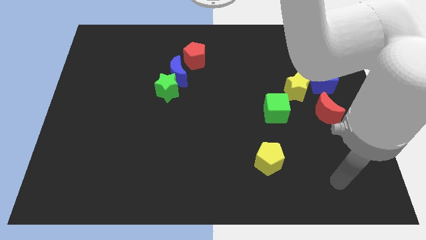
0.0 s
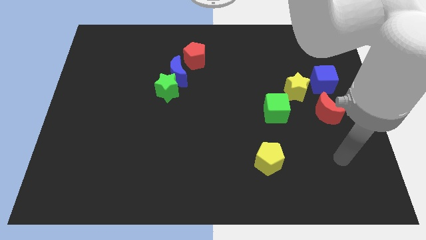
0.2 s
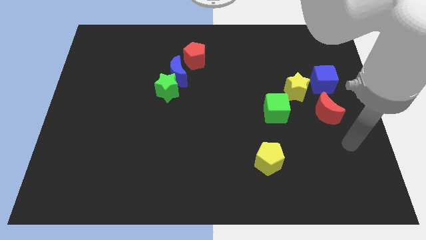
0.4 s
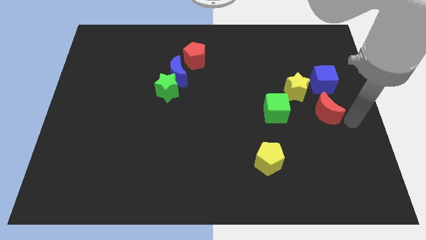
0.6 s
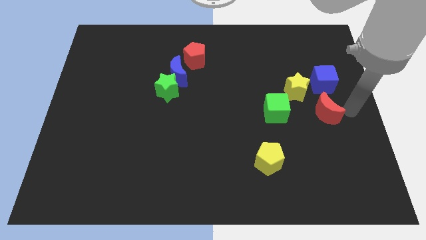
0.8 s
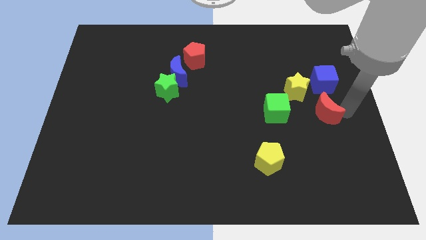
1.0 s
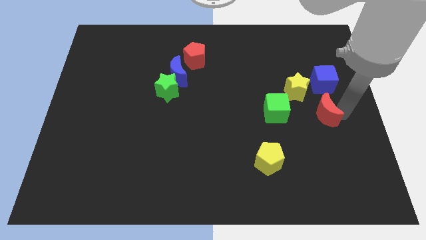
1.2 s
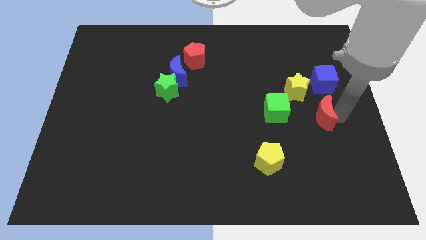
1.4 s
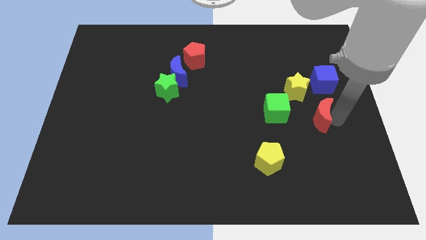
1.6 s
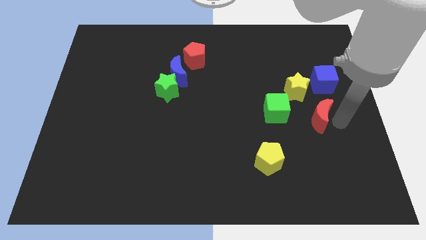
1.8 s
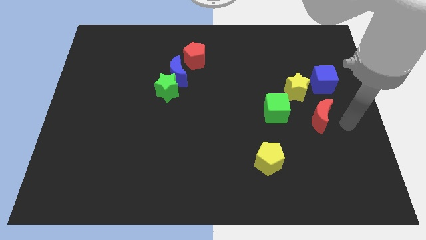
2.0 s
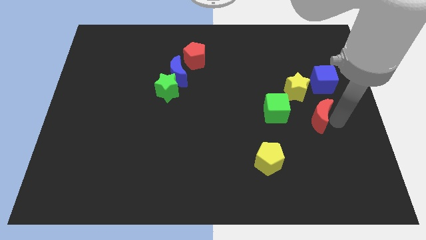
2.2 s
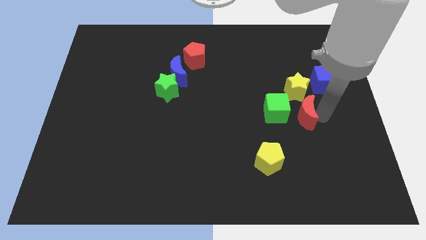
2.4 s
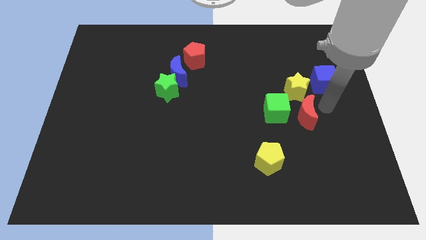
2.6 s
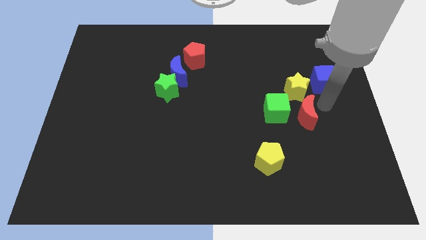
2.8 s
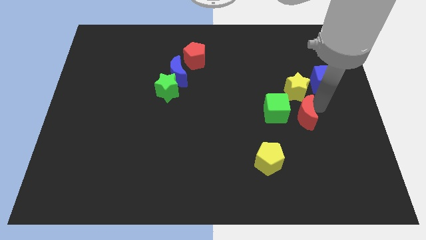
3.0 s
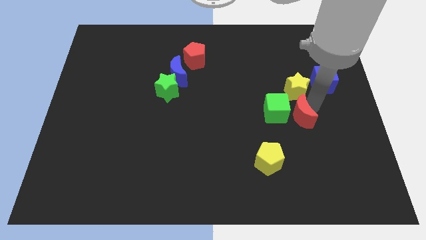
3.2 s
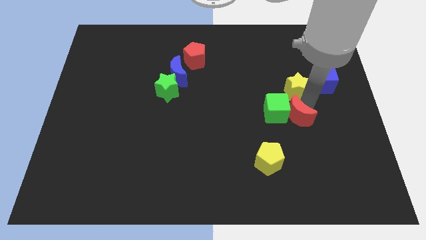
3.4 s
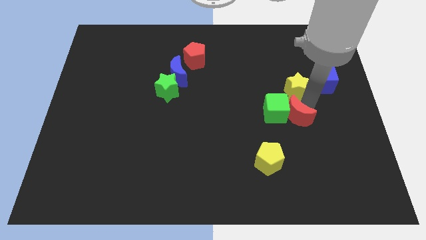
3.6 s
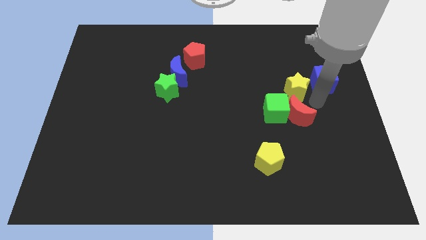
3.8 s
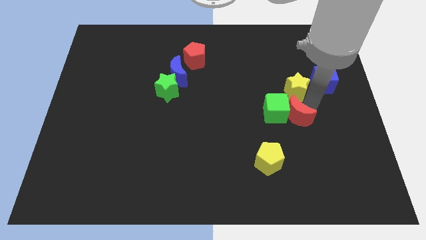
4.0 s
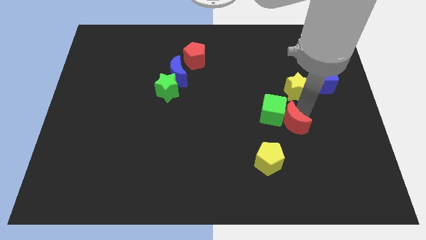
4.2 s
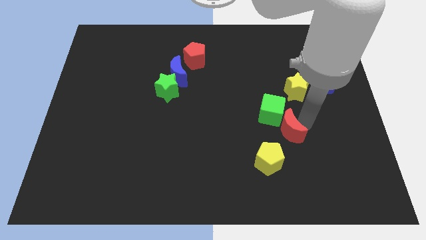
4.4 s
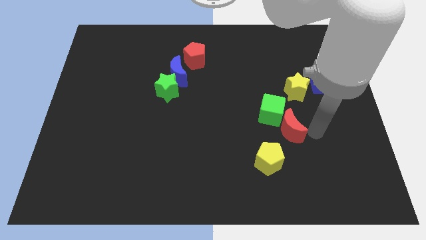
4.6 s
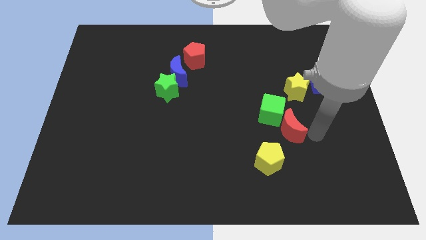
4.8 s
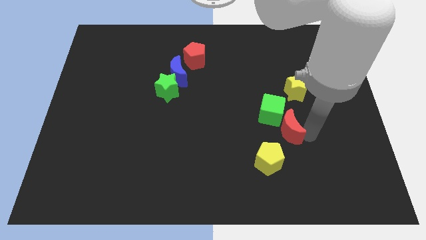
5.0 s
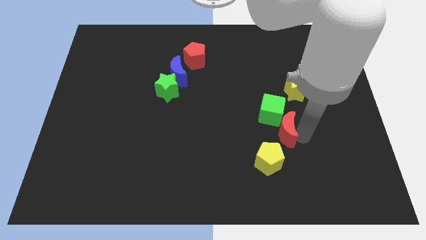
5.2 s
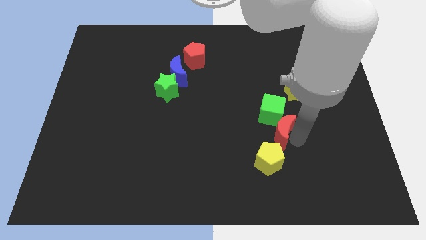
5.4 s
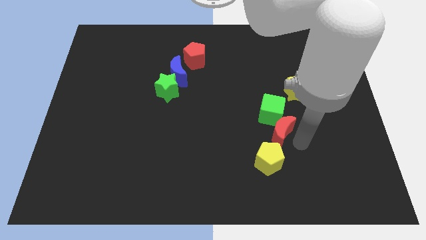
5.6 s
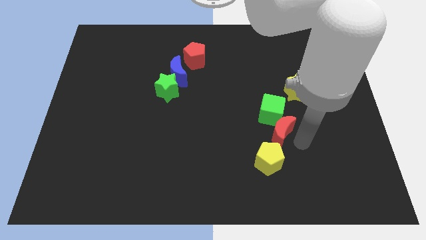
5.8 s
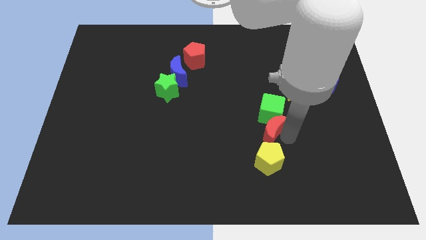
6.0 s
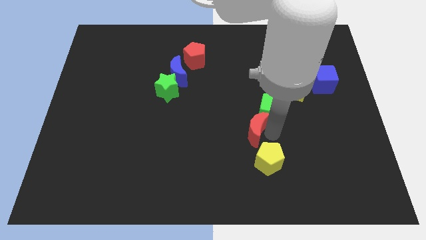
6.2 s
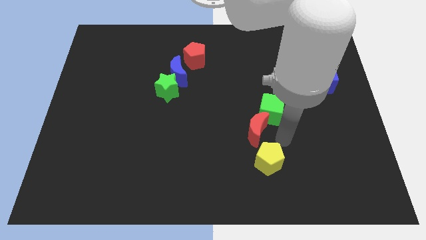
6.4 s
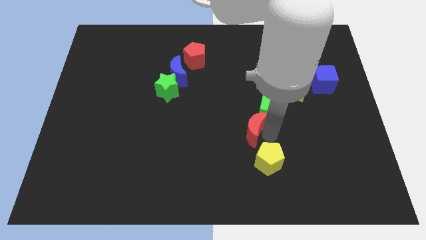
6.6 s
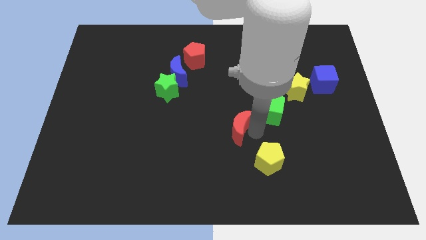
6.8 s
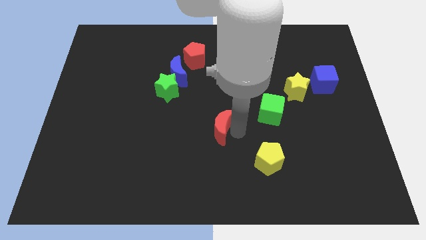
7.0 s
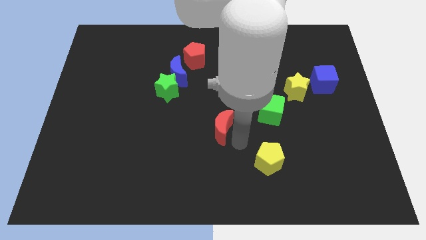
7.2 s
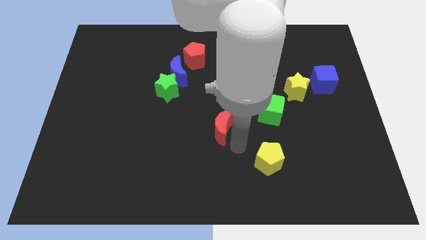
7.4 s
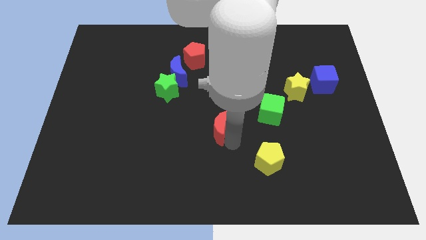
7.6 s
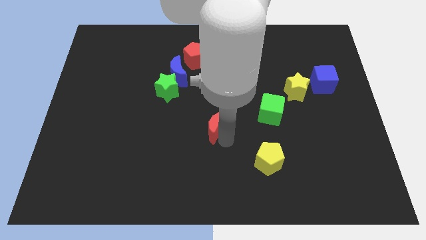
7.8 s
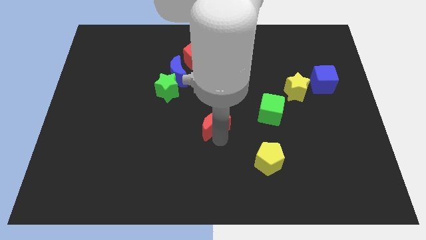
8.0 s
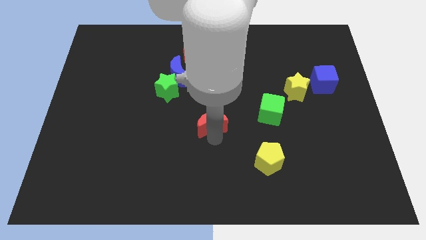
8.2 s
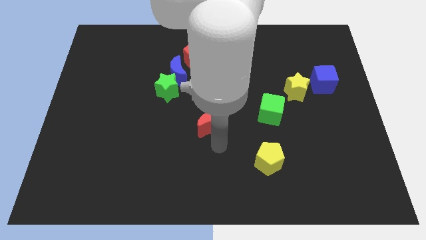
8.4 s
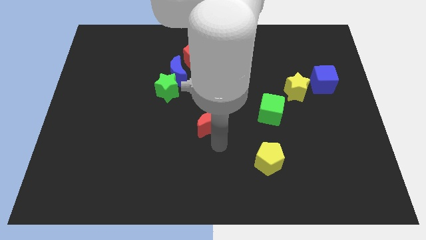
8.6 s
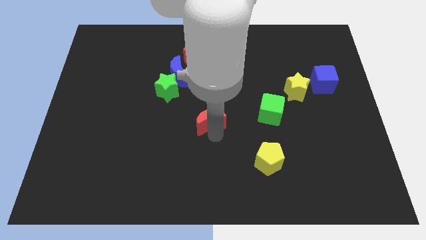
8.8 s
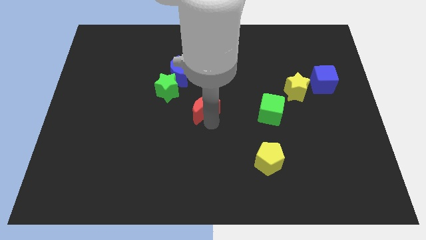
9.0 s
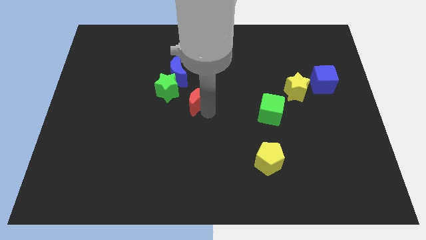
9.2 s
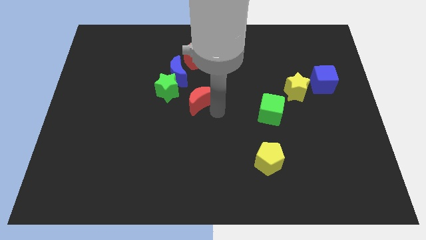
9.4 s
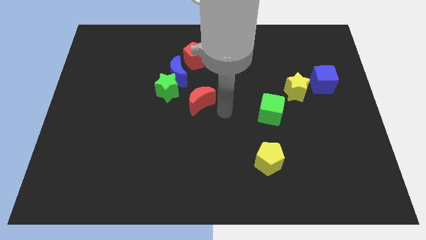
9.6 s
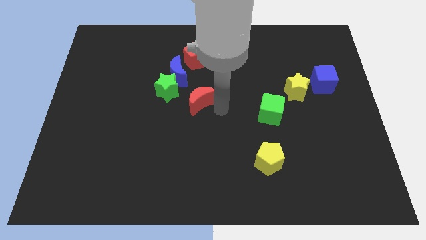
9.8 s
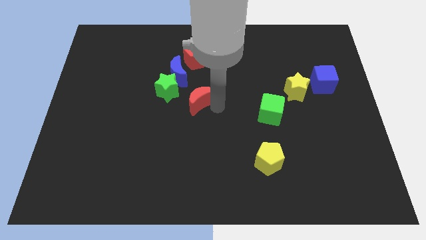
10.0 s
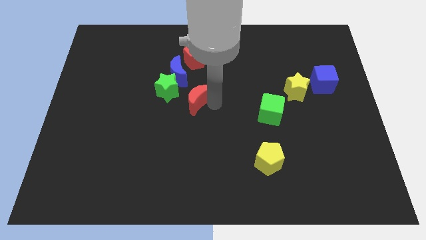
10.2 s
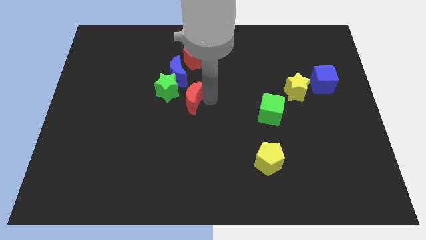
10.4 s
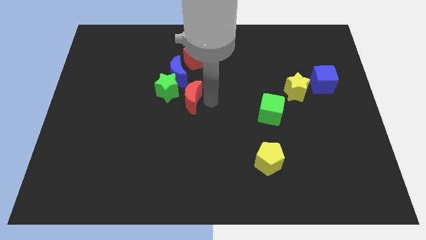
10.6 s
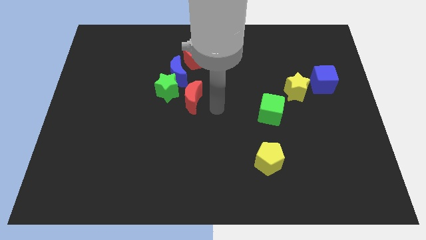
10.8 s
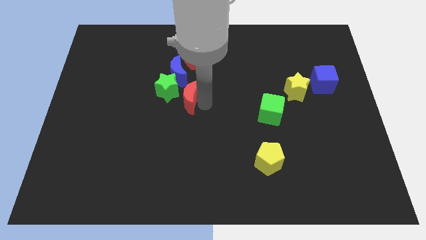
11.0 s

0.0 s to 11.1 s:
push the red moon towards the green star

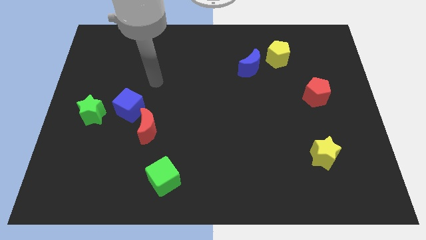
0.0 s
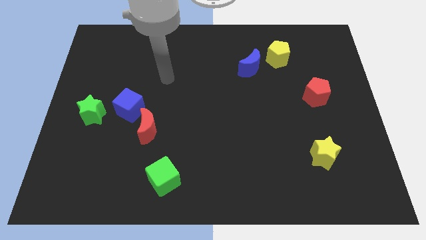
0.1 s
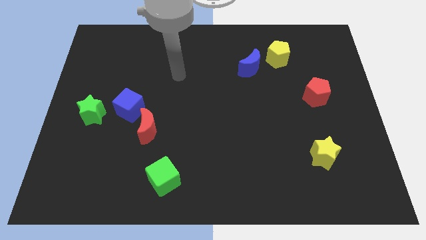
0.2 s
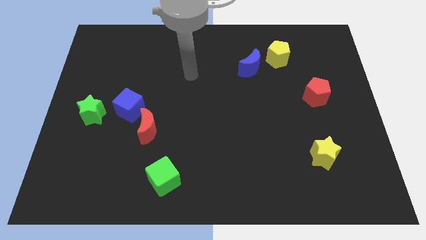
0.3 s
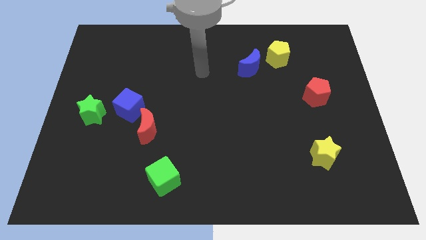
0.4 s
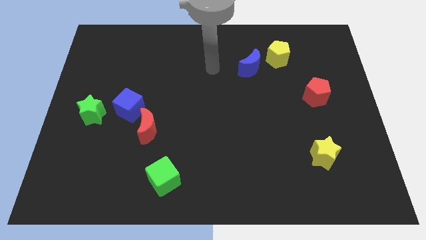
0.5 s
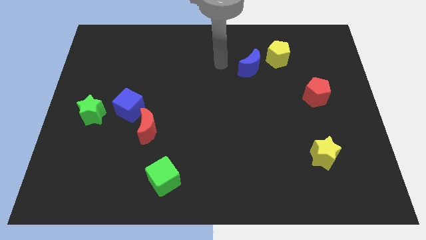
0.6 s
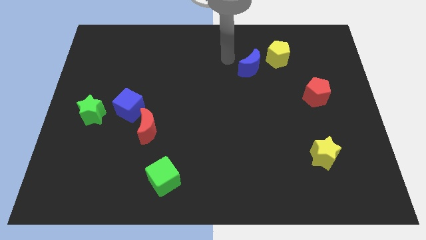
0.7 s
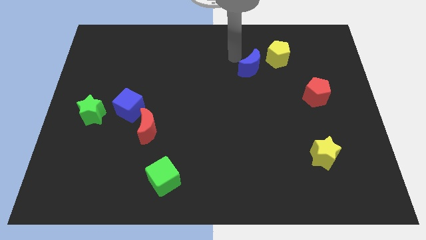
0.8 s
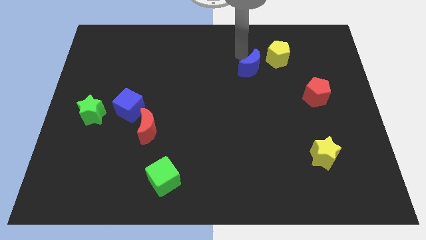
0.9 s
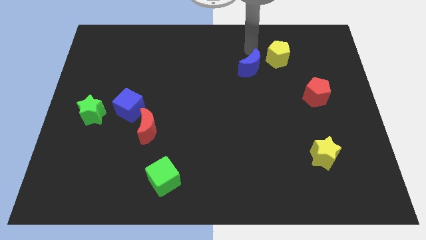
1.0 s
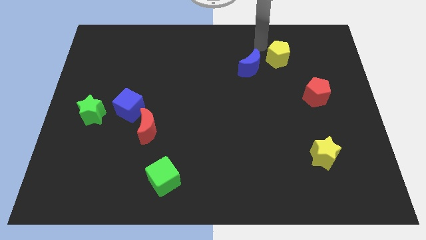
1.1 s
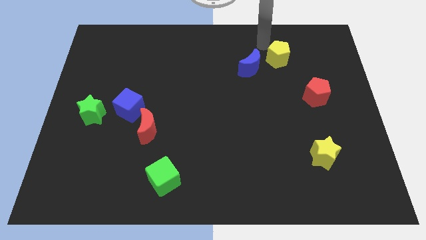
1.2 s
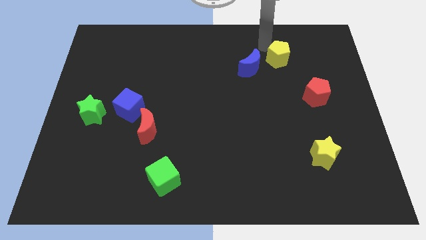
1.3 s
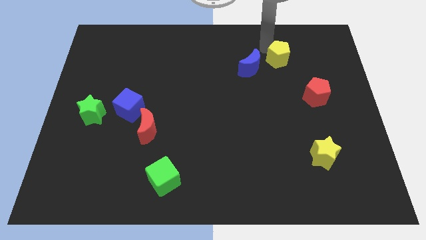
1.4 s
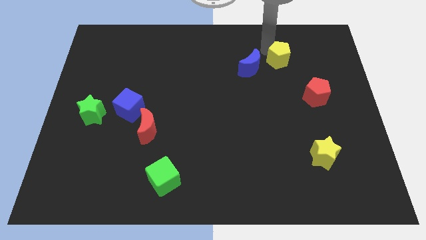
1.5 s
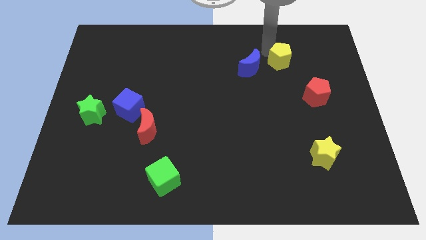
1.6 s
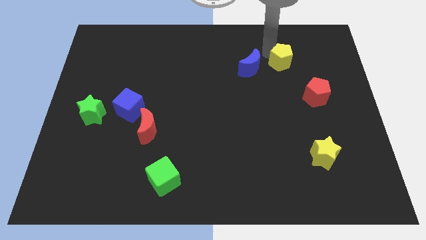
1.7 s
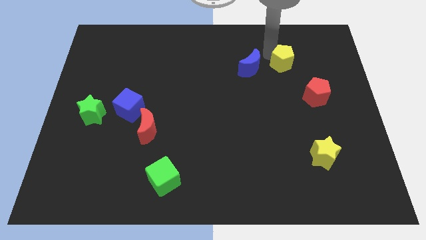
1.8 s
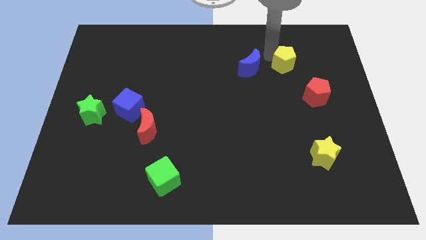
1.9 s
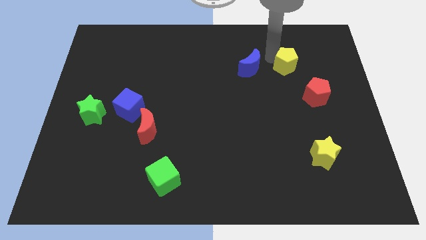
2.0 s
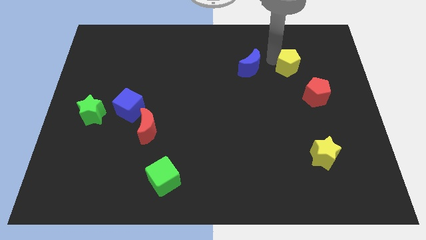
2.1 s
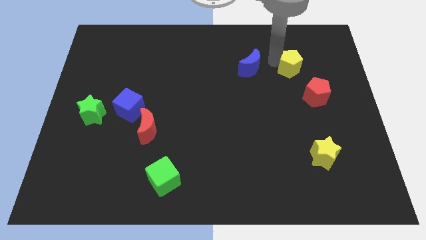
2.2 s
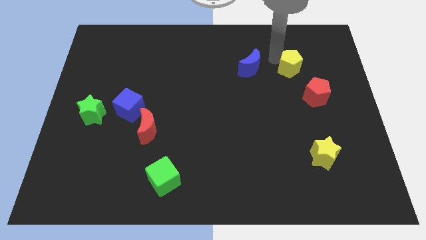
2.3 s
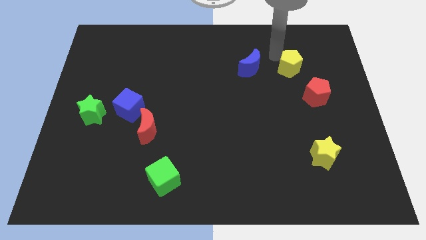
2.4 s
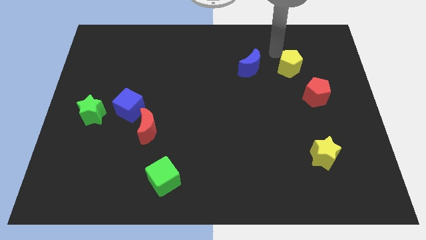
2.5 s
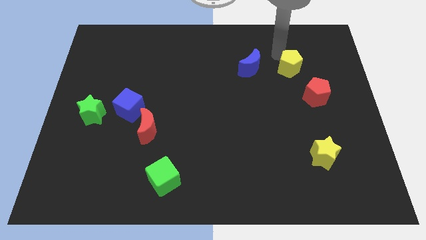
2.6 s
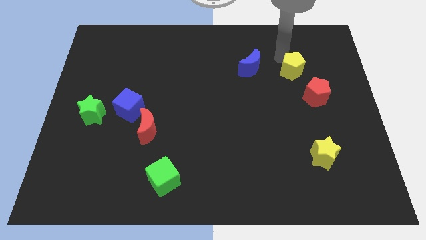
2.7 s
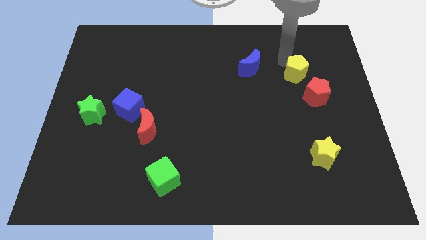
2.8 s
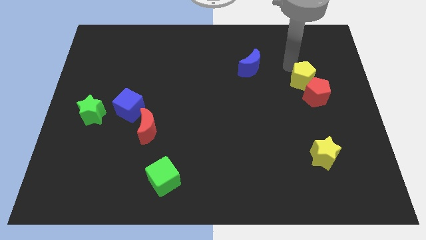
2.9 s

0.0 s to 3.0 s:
put the yellow pentagon next to the red pentagon
